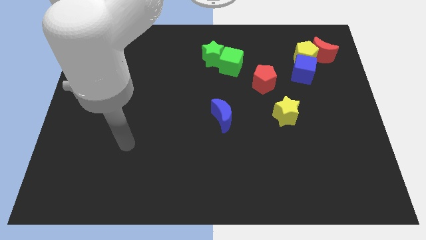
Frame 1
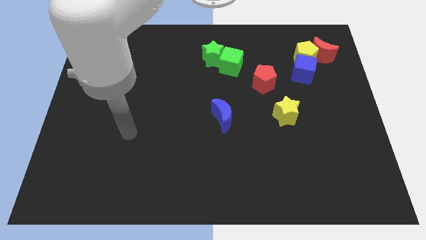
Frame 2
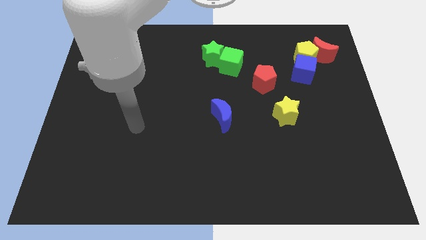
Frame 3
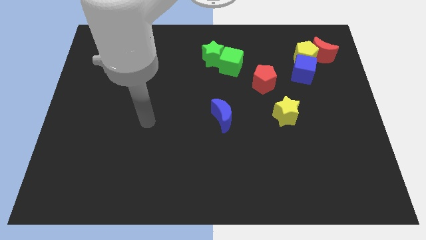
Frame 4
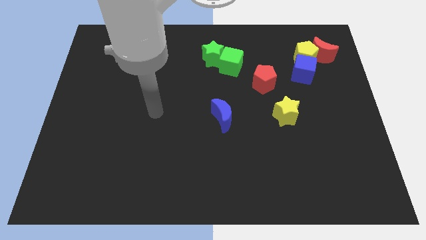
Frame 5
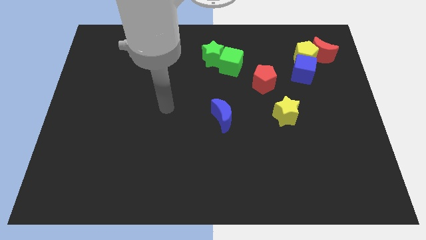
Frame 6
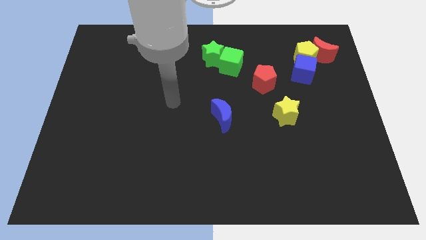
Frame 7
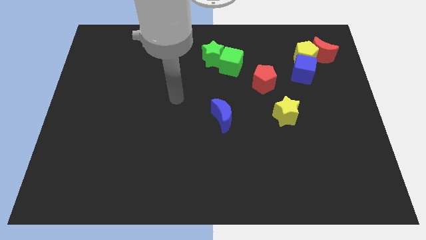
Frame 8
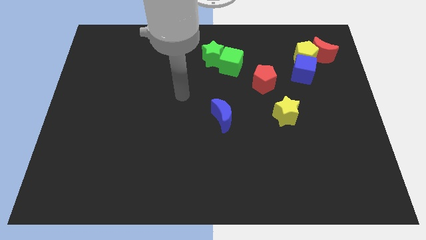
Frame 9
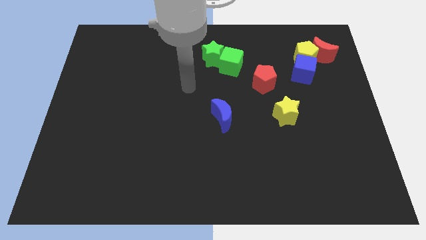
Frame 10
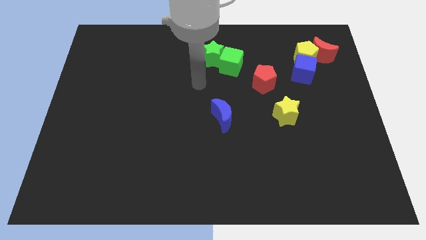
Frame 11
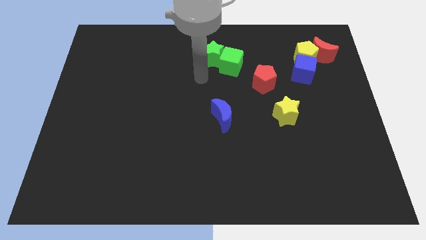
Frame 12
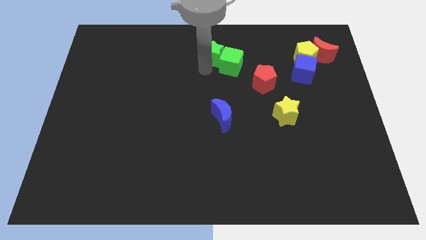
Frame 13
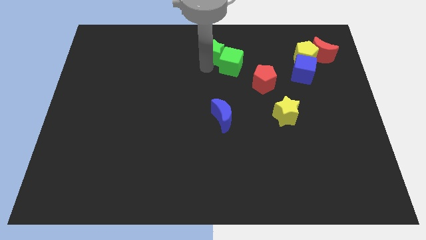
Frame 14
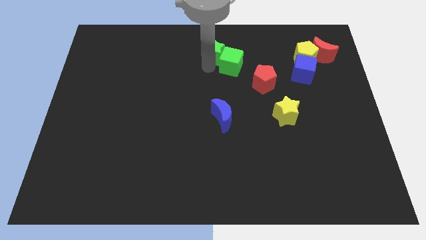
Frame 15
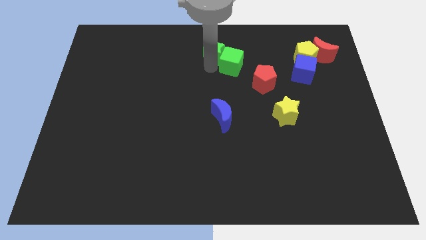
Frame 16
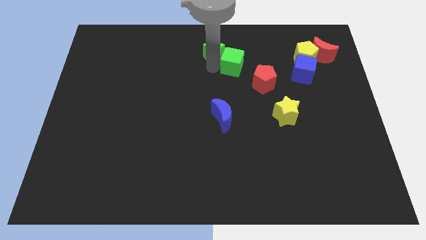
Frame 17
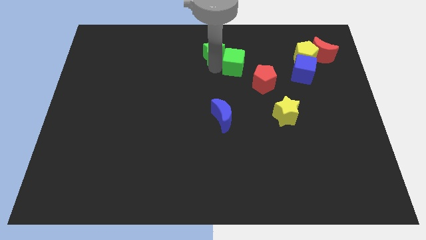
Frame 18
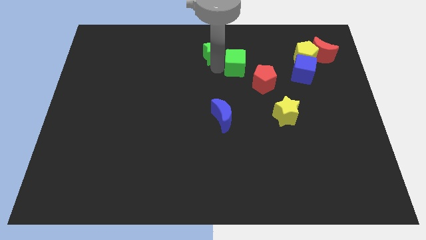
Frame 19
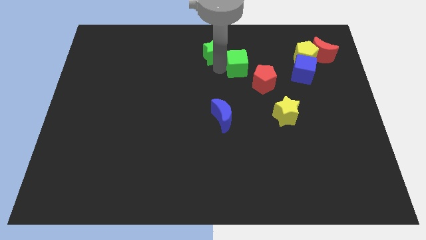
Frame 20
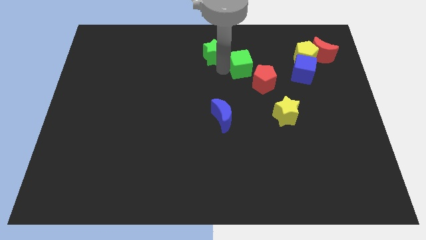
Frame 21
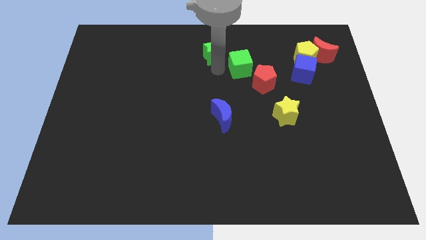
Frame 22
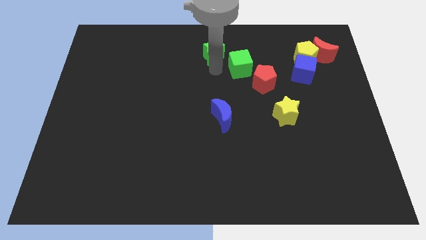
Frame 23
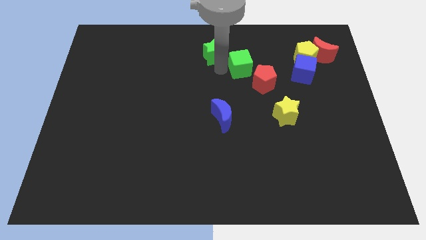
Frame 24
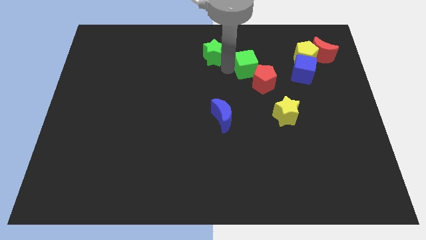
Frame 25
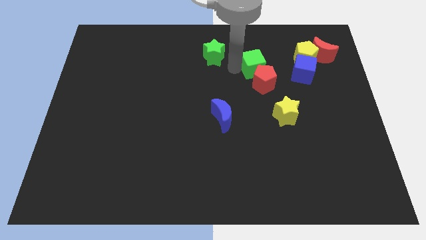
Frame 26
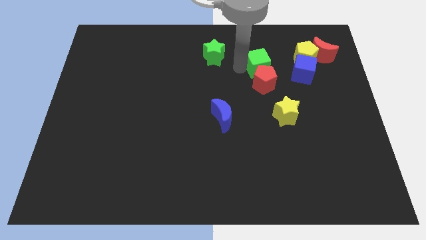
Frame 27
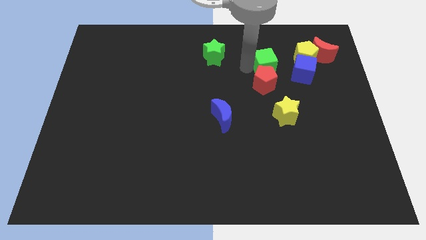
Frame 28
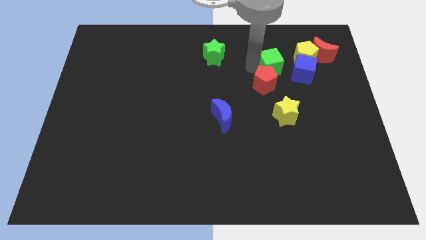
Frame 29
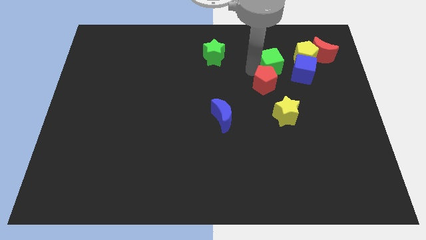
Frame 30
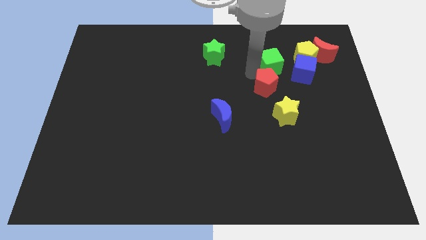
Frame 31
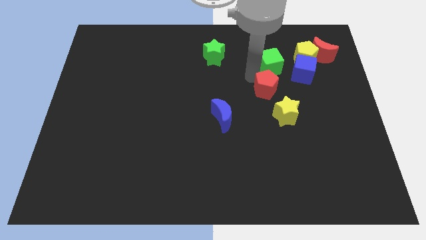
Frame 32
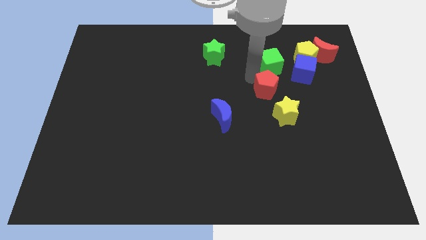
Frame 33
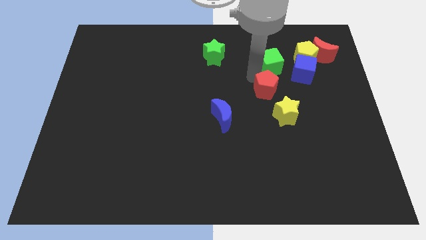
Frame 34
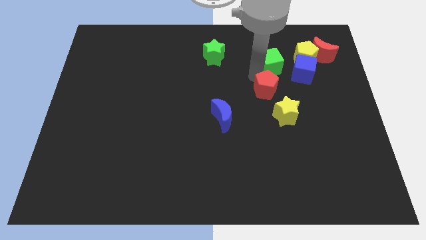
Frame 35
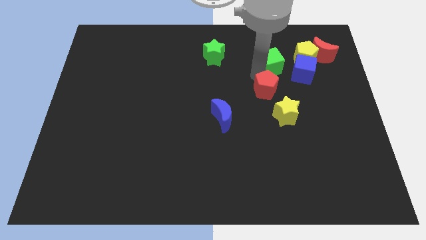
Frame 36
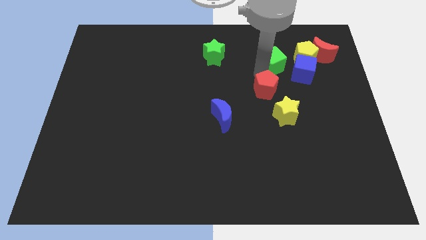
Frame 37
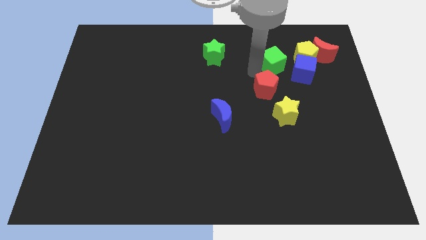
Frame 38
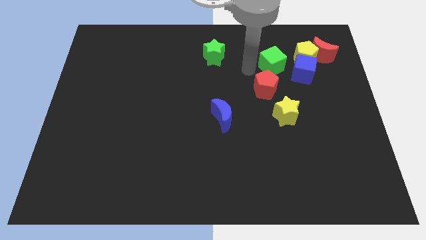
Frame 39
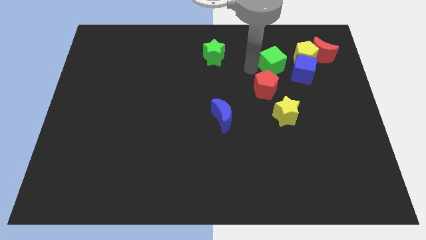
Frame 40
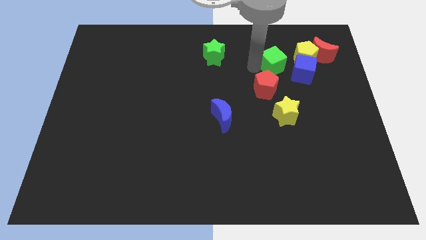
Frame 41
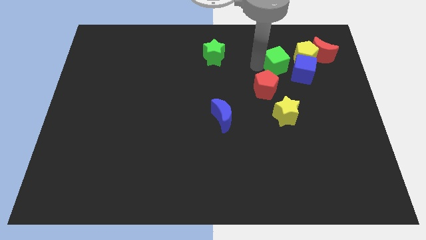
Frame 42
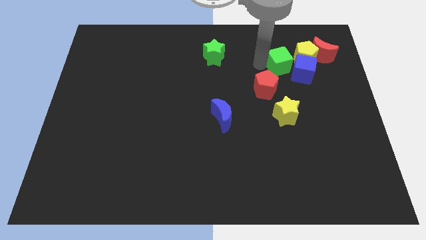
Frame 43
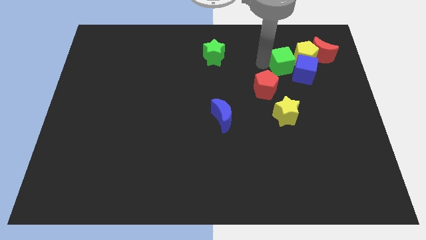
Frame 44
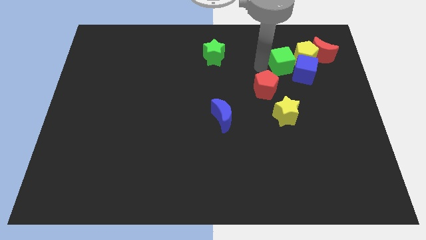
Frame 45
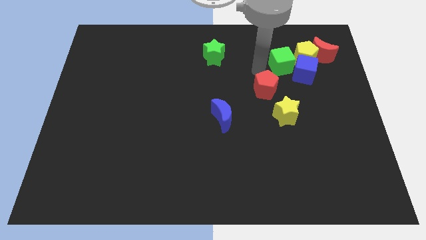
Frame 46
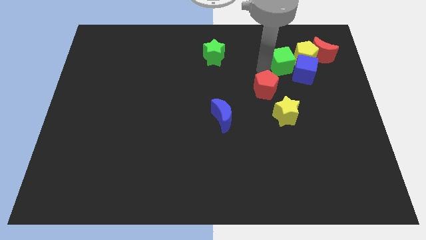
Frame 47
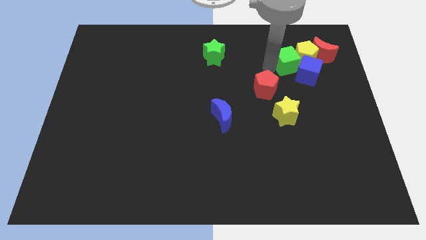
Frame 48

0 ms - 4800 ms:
slide the green cube towards the yellow pentagon

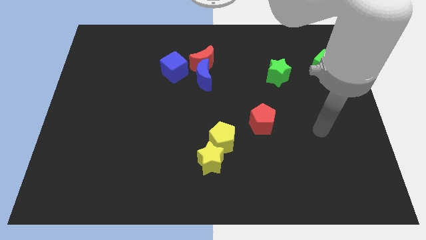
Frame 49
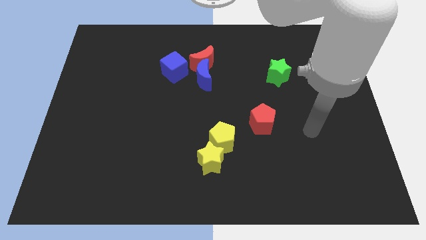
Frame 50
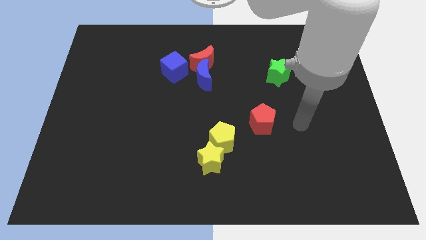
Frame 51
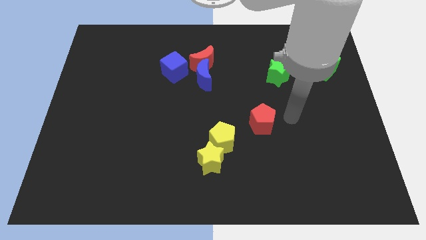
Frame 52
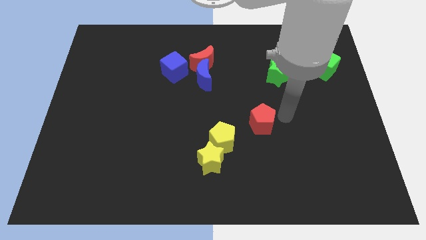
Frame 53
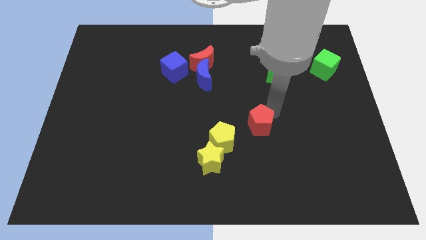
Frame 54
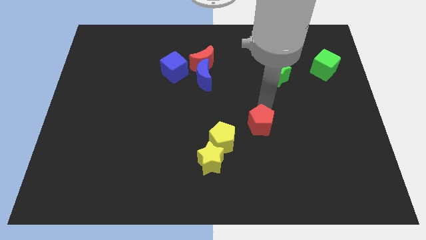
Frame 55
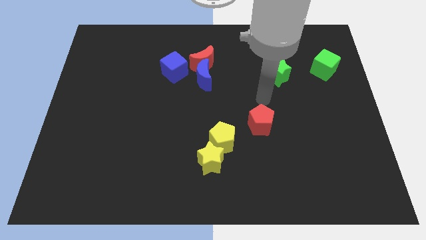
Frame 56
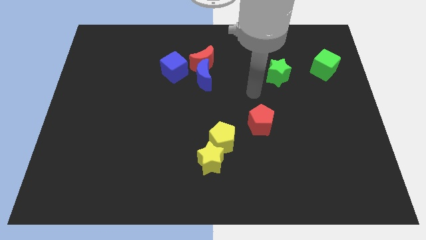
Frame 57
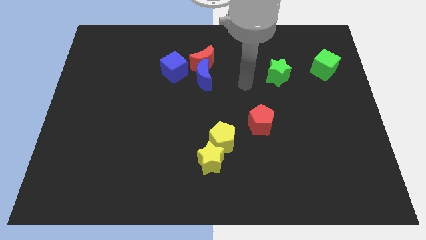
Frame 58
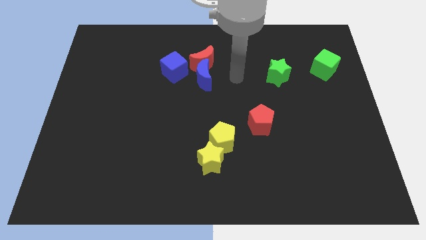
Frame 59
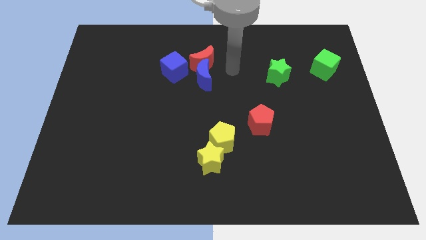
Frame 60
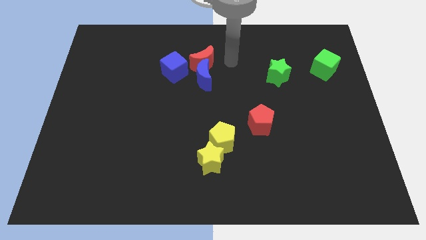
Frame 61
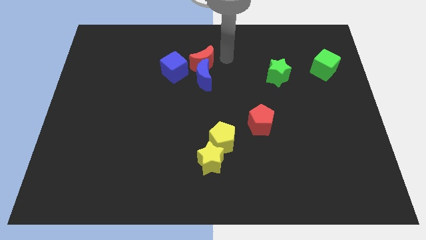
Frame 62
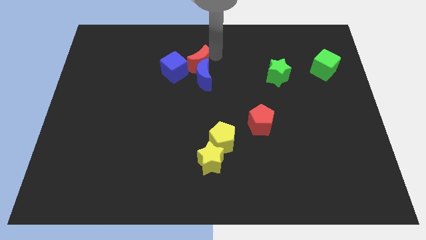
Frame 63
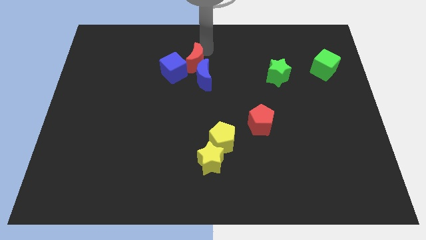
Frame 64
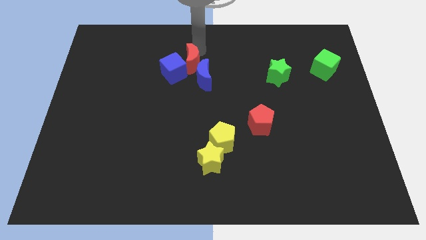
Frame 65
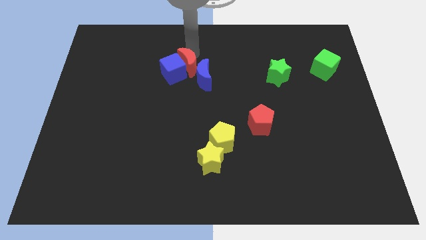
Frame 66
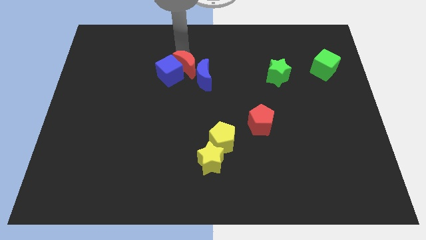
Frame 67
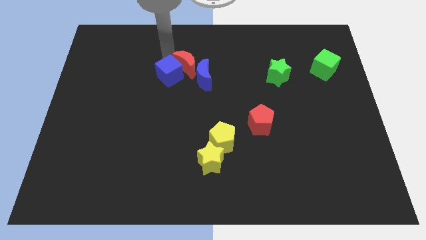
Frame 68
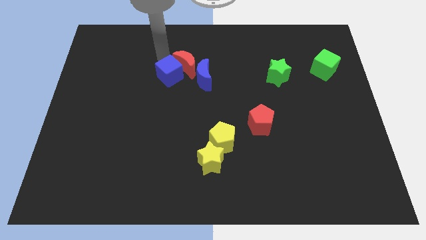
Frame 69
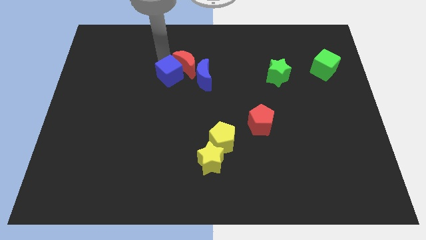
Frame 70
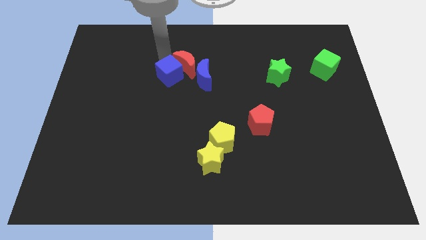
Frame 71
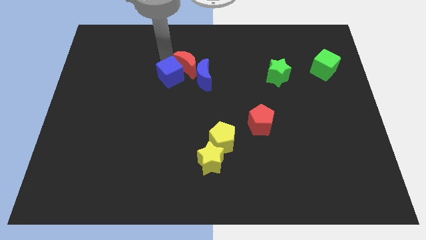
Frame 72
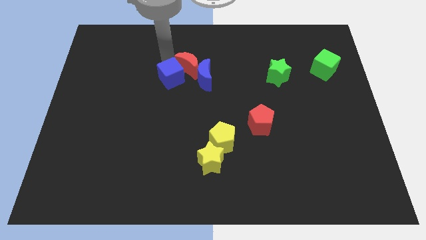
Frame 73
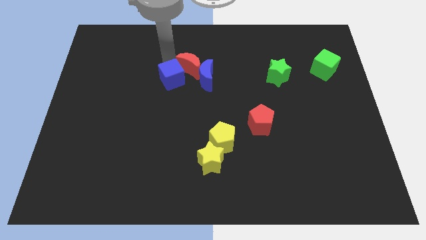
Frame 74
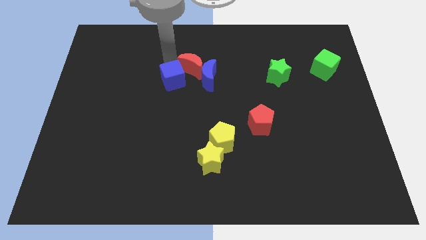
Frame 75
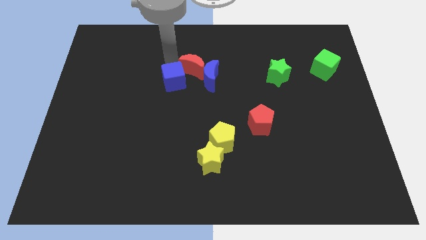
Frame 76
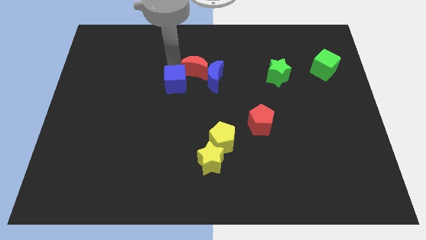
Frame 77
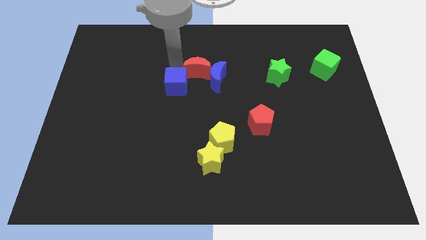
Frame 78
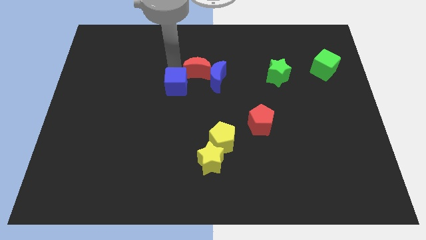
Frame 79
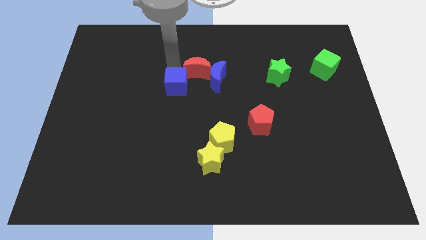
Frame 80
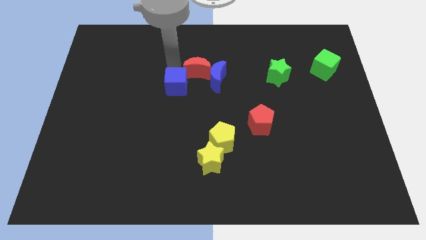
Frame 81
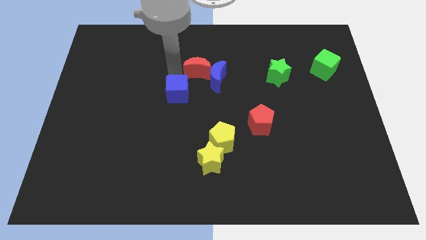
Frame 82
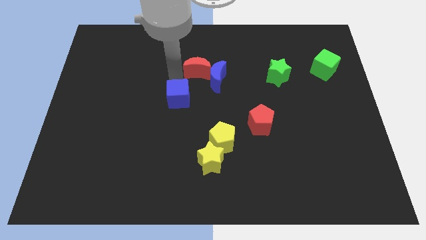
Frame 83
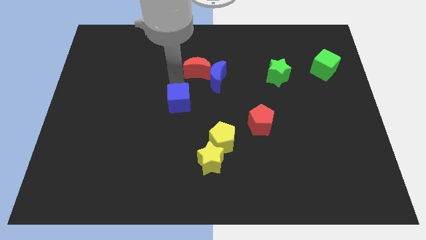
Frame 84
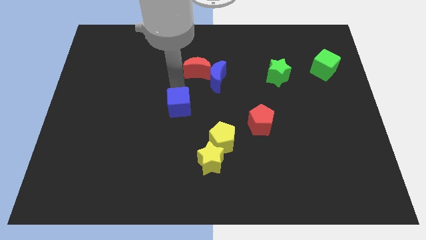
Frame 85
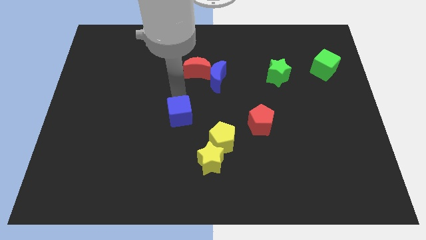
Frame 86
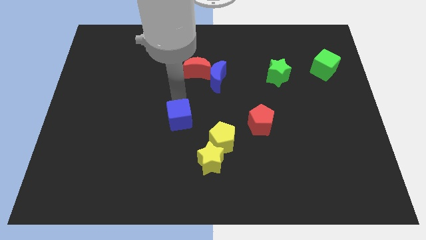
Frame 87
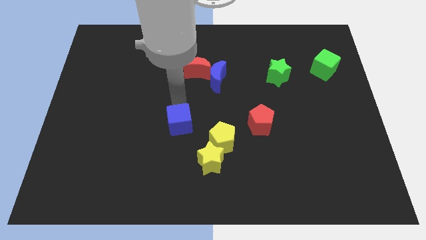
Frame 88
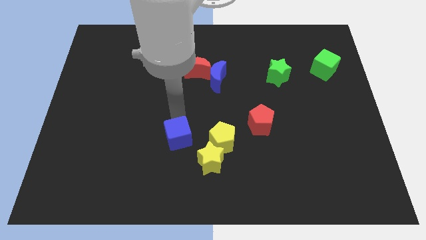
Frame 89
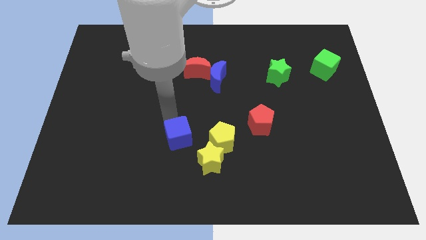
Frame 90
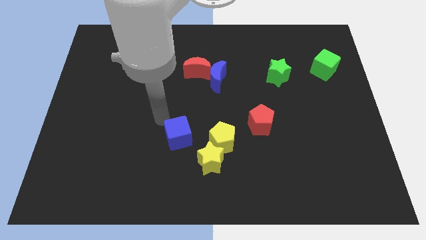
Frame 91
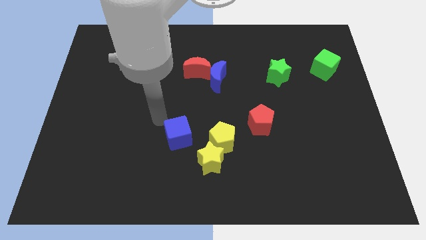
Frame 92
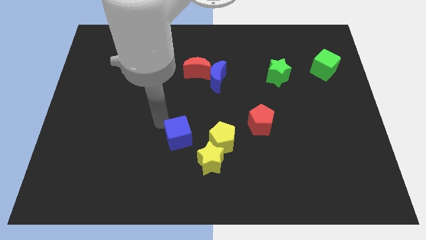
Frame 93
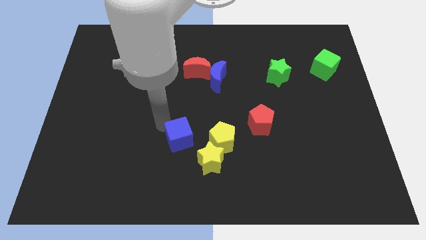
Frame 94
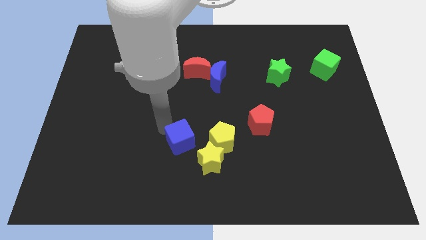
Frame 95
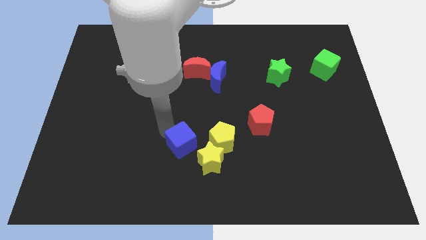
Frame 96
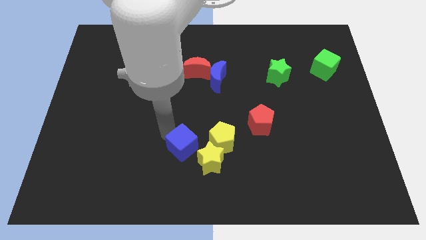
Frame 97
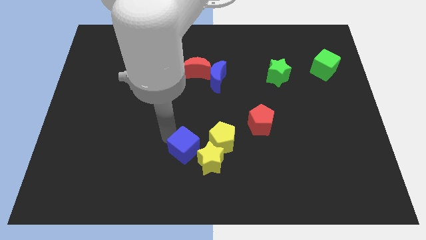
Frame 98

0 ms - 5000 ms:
move the blue cube to the yellow star
